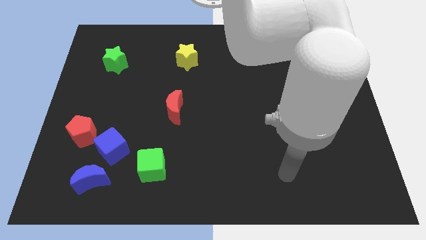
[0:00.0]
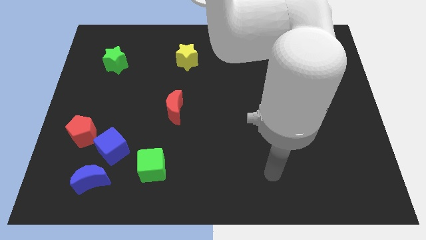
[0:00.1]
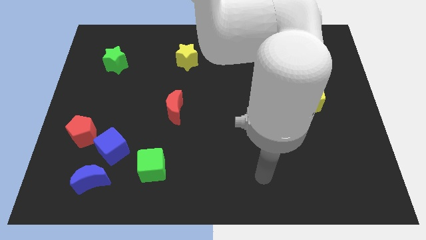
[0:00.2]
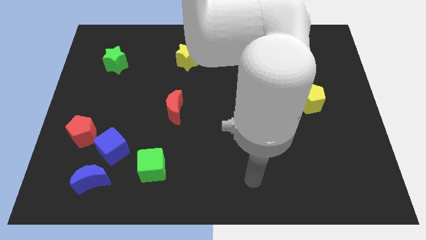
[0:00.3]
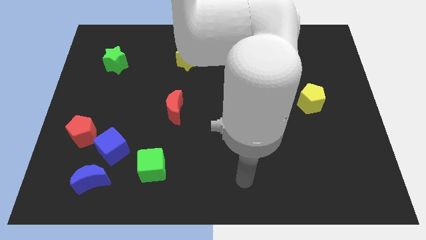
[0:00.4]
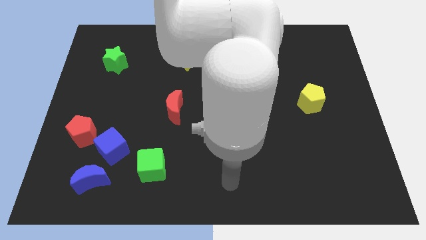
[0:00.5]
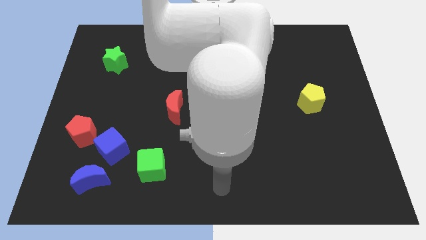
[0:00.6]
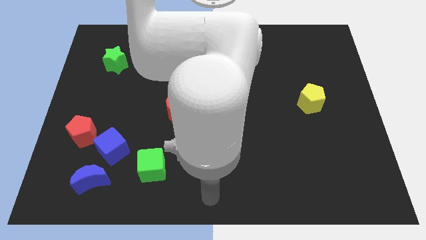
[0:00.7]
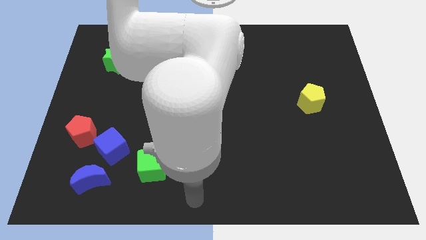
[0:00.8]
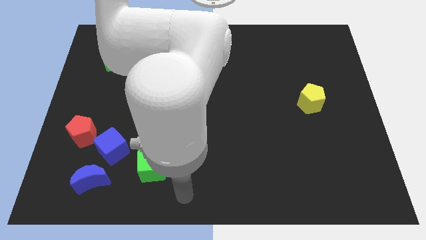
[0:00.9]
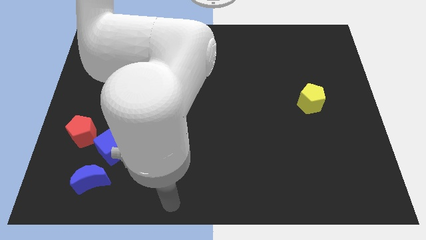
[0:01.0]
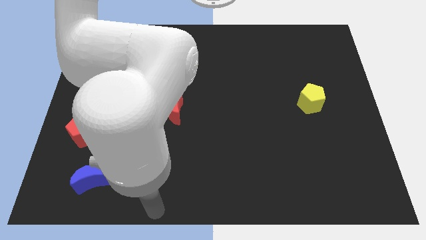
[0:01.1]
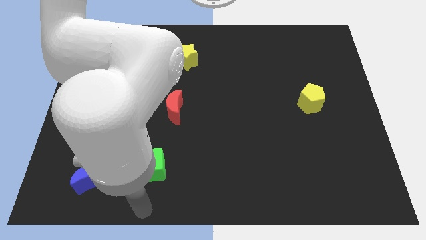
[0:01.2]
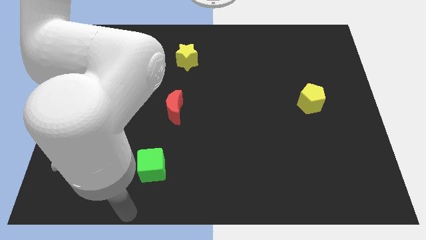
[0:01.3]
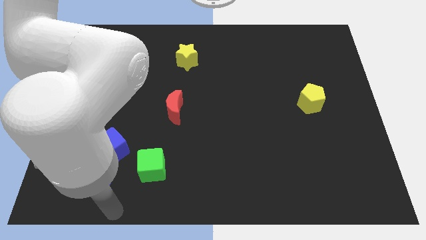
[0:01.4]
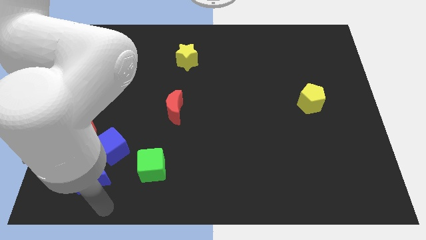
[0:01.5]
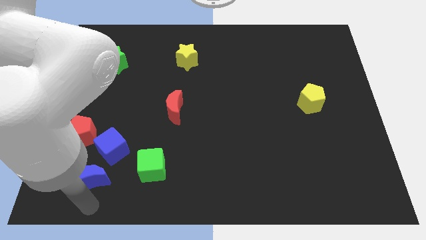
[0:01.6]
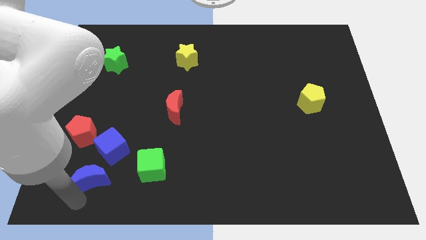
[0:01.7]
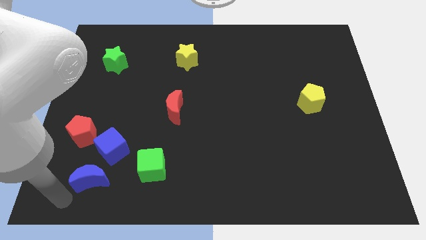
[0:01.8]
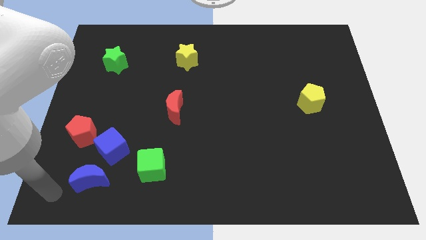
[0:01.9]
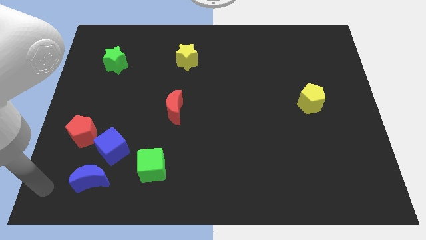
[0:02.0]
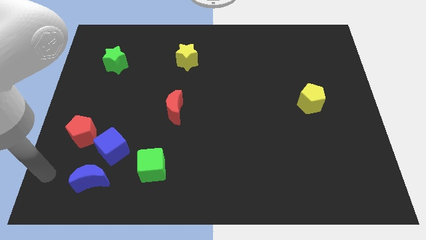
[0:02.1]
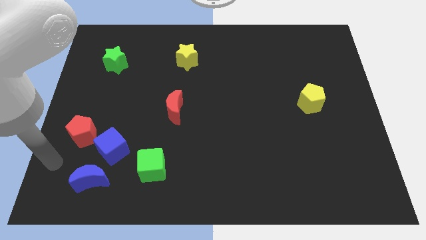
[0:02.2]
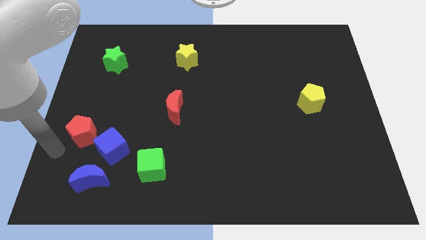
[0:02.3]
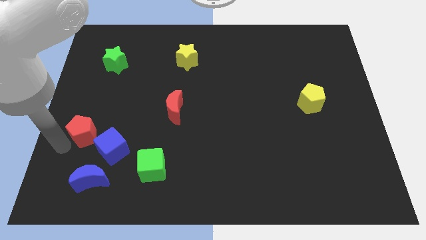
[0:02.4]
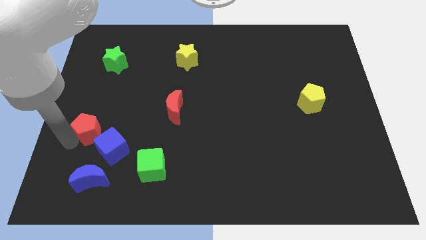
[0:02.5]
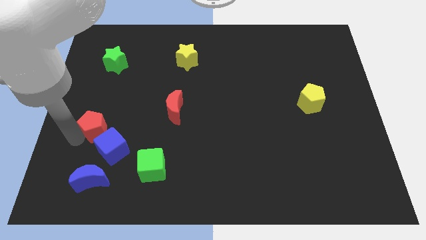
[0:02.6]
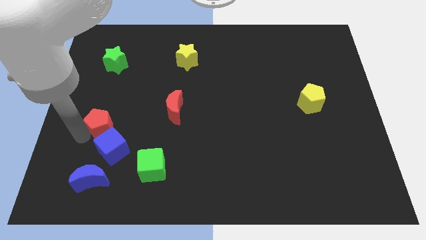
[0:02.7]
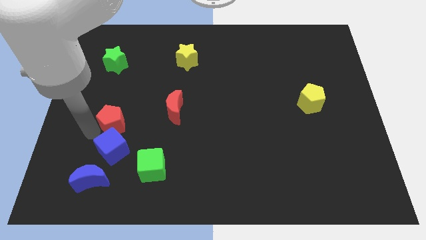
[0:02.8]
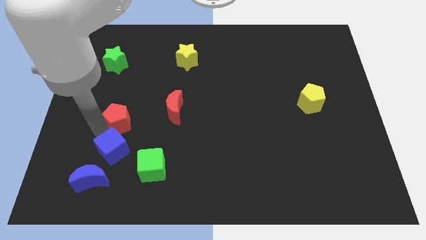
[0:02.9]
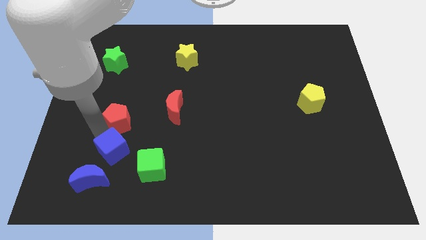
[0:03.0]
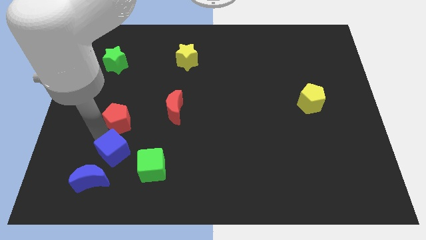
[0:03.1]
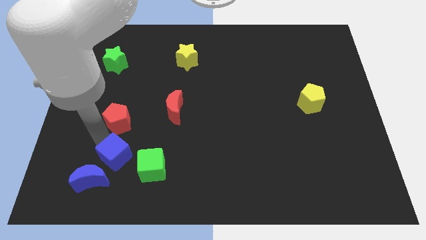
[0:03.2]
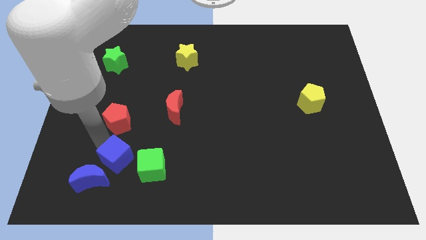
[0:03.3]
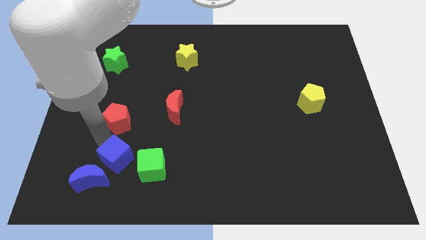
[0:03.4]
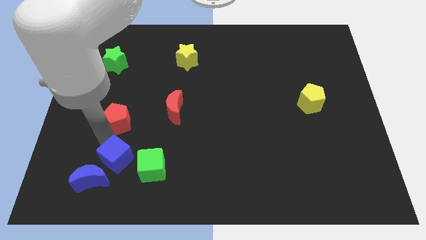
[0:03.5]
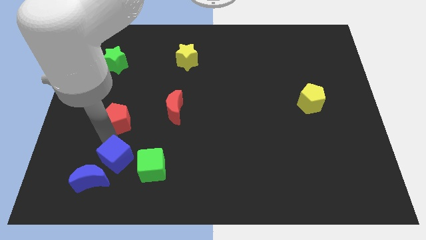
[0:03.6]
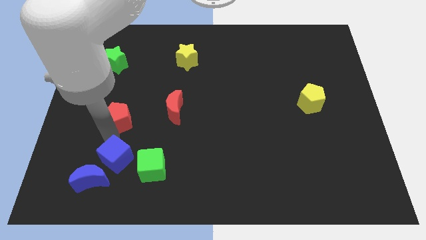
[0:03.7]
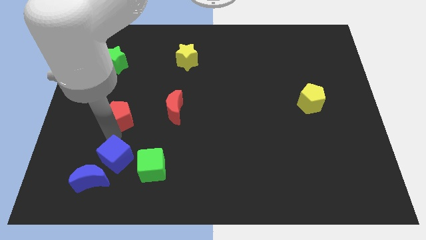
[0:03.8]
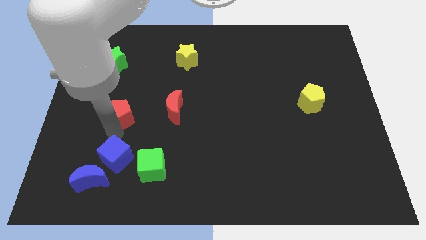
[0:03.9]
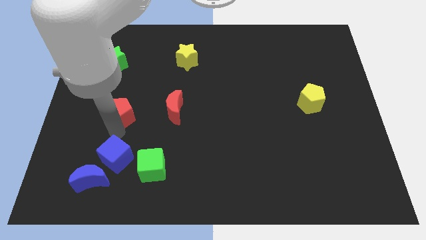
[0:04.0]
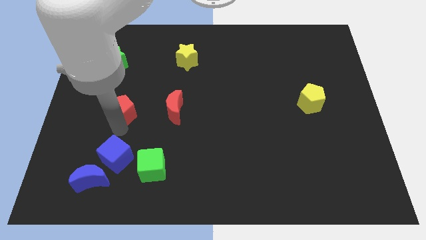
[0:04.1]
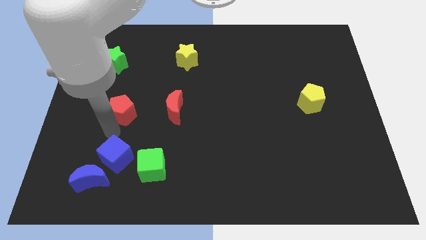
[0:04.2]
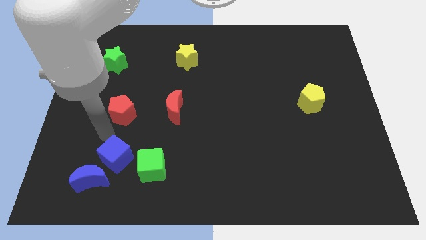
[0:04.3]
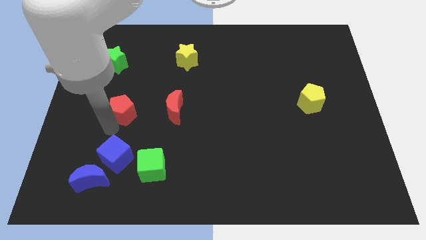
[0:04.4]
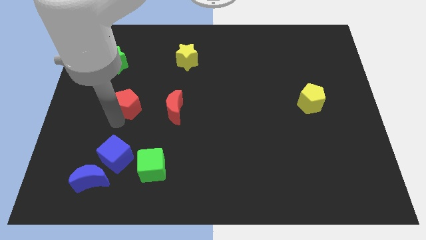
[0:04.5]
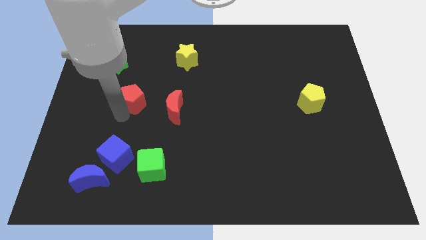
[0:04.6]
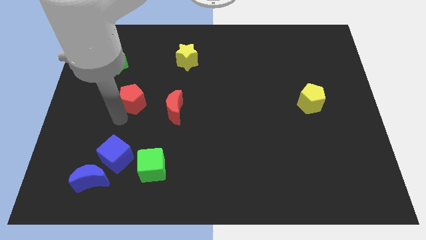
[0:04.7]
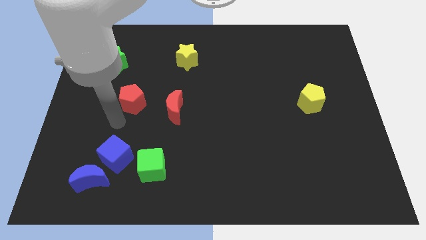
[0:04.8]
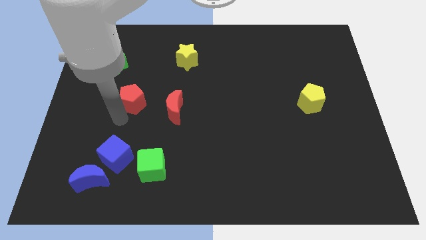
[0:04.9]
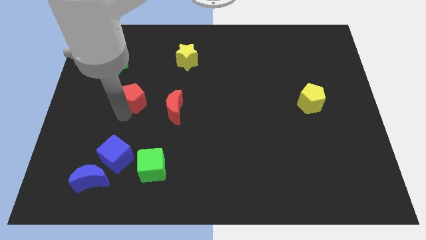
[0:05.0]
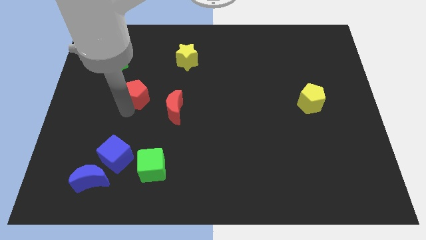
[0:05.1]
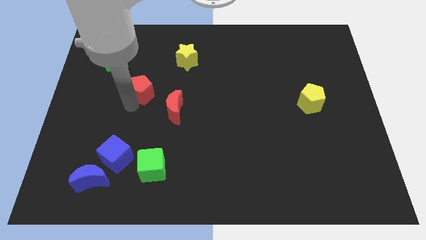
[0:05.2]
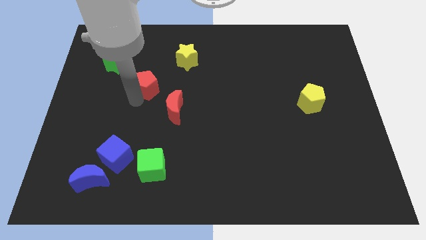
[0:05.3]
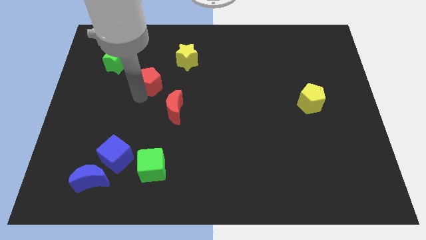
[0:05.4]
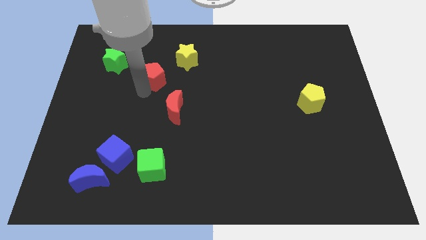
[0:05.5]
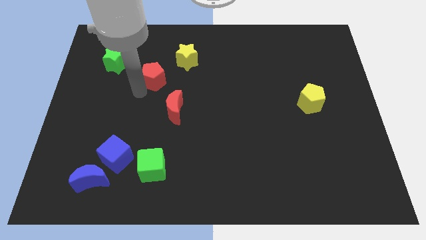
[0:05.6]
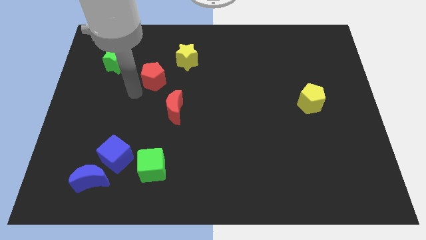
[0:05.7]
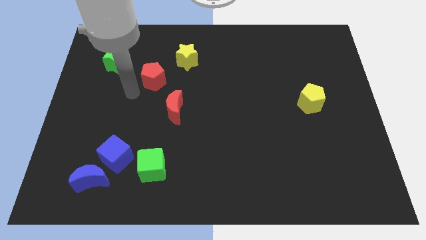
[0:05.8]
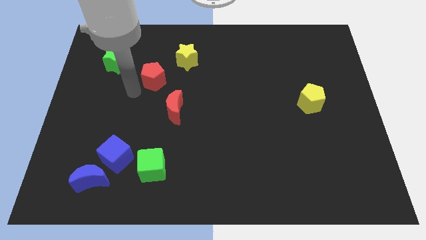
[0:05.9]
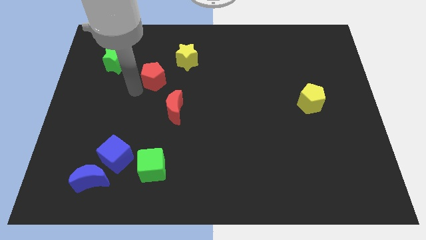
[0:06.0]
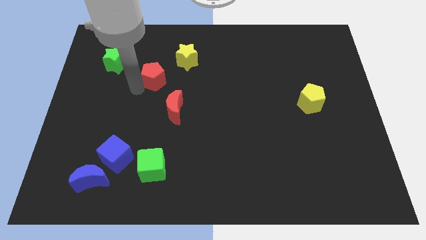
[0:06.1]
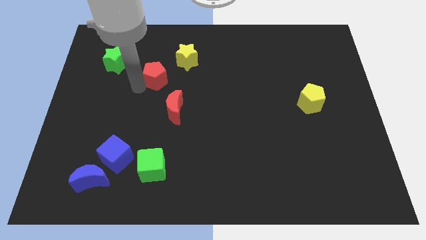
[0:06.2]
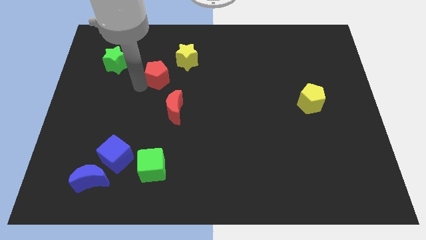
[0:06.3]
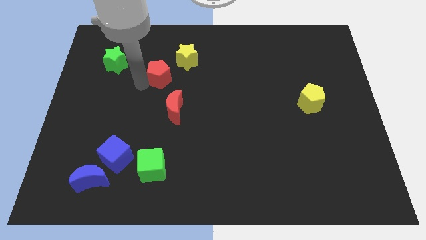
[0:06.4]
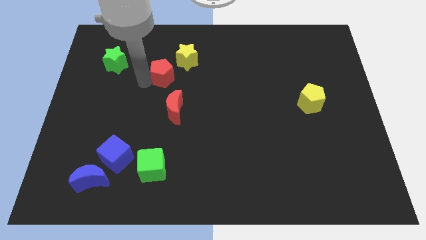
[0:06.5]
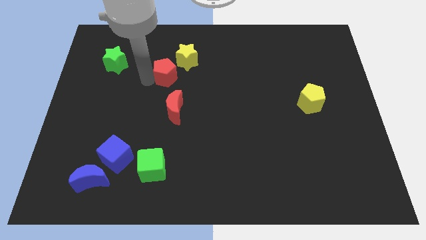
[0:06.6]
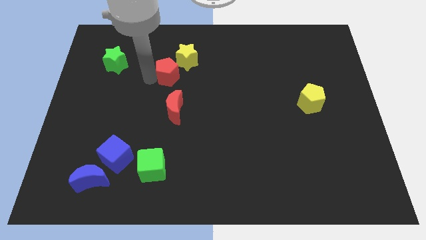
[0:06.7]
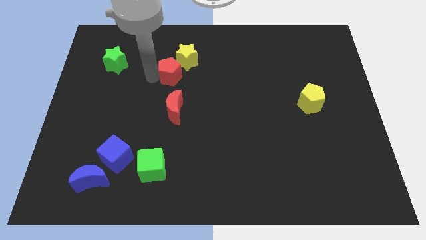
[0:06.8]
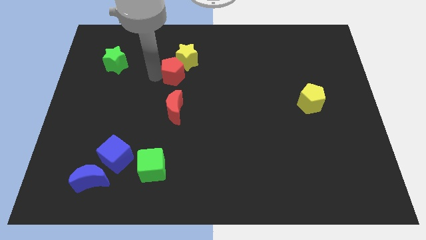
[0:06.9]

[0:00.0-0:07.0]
put the red pentagon close to the yellow star

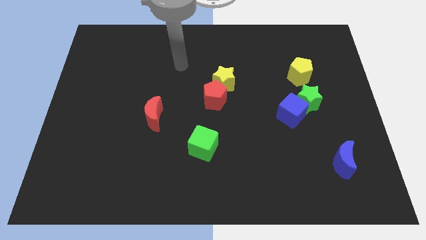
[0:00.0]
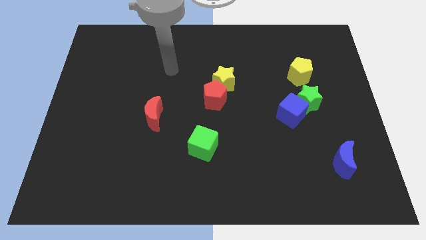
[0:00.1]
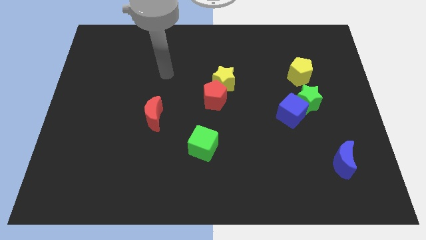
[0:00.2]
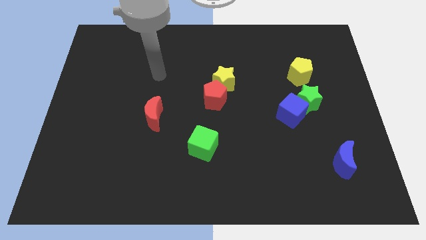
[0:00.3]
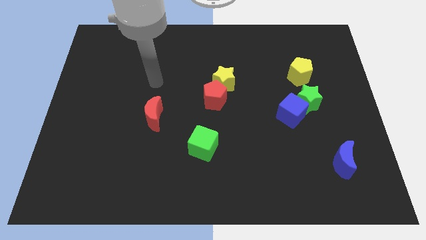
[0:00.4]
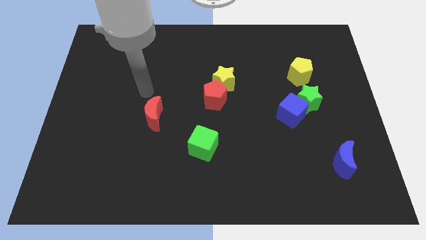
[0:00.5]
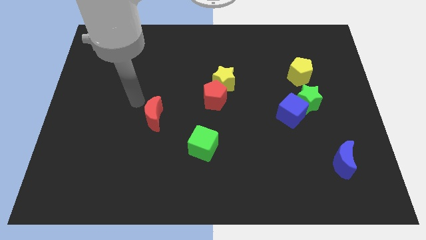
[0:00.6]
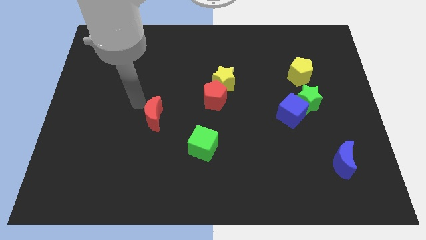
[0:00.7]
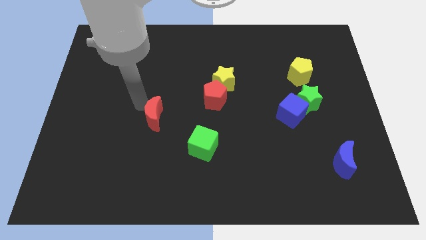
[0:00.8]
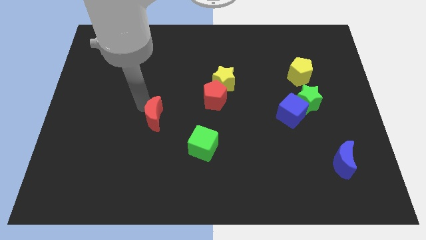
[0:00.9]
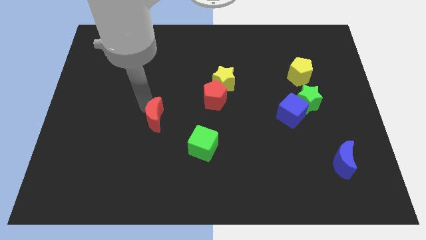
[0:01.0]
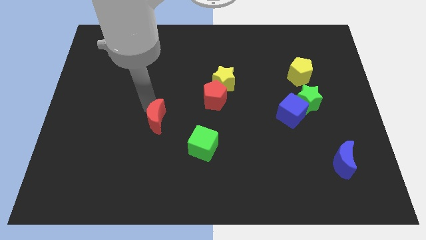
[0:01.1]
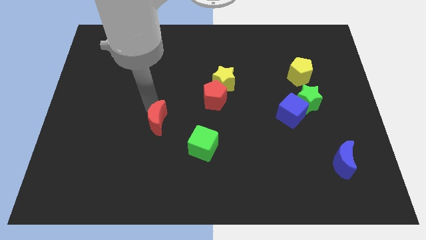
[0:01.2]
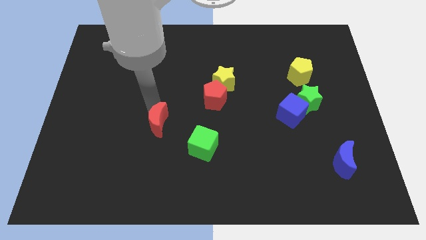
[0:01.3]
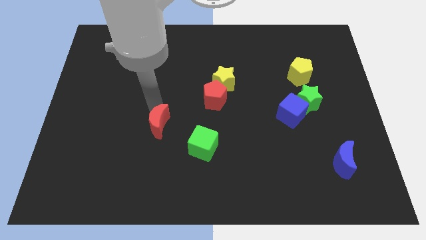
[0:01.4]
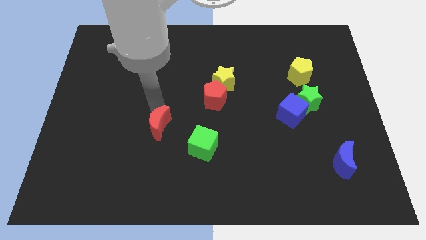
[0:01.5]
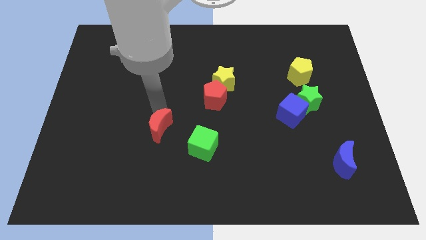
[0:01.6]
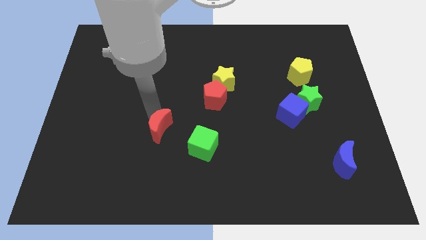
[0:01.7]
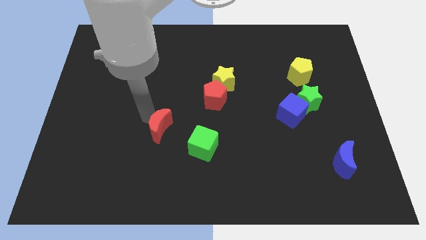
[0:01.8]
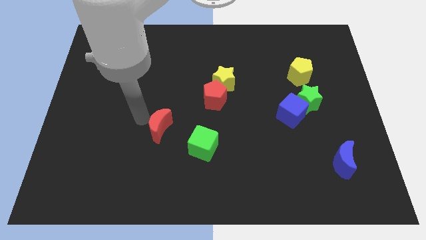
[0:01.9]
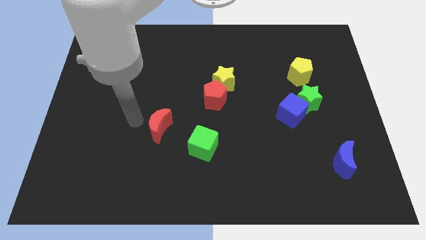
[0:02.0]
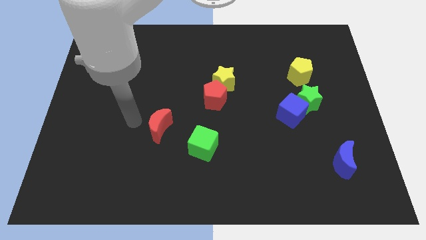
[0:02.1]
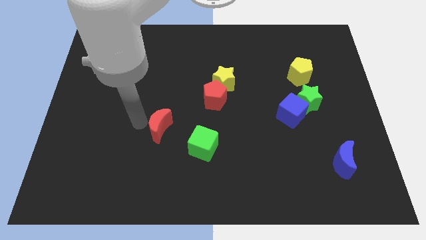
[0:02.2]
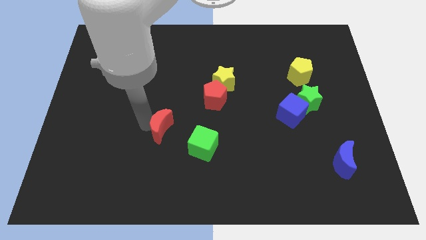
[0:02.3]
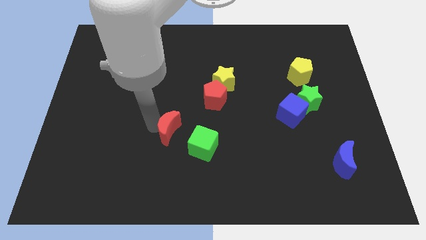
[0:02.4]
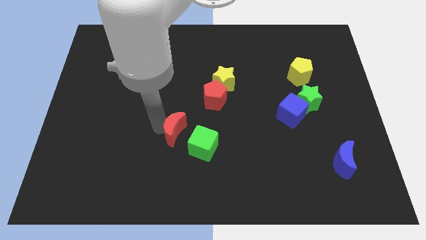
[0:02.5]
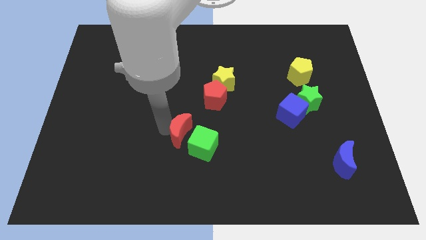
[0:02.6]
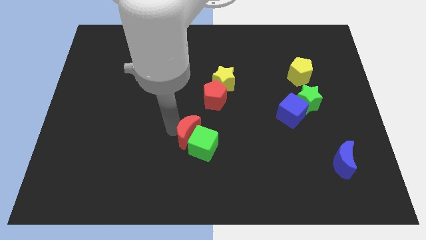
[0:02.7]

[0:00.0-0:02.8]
put the red moon close to the green cube
